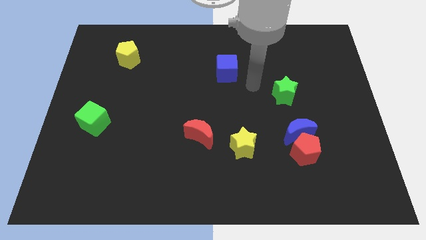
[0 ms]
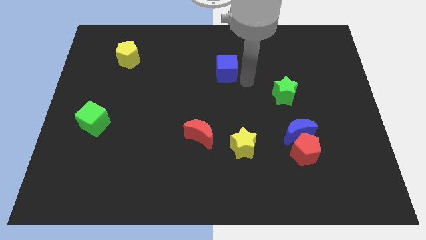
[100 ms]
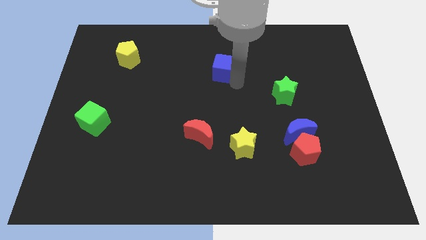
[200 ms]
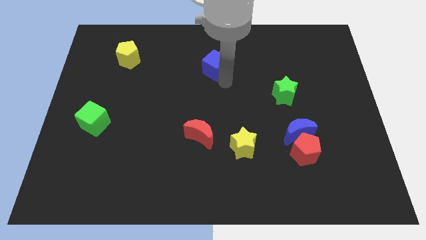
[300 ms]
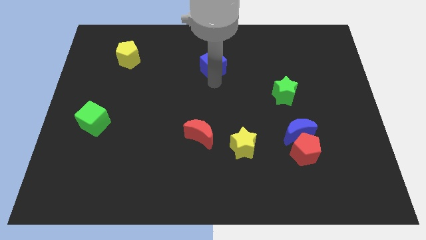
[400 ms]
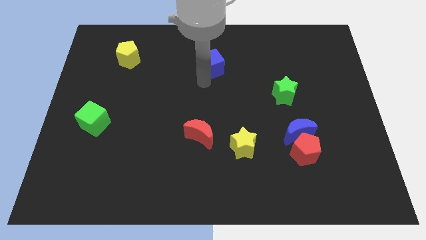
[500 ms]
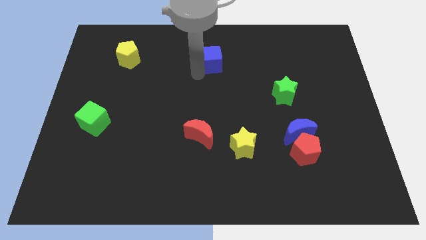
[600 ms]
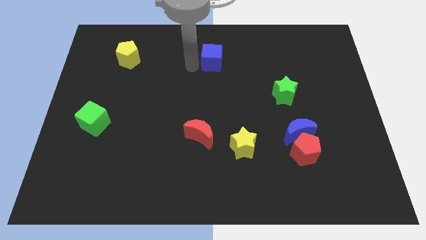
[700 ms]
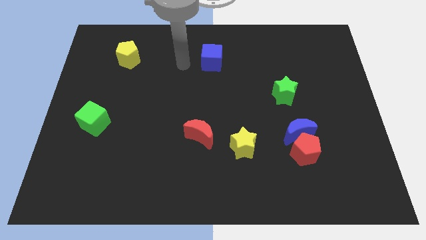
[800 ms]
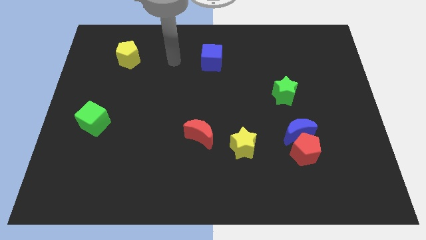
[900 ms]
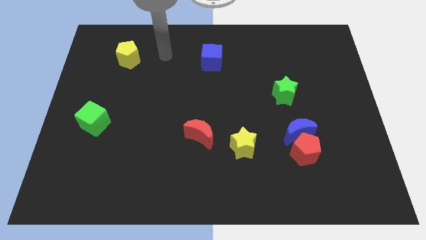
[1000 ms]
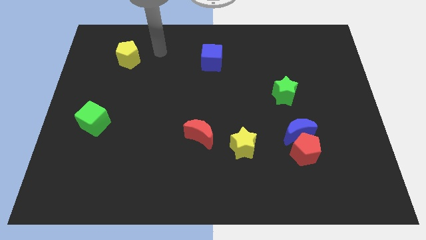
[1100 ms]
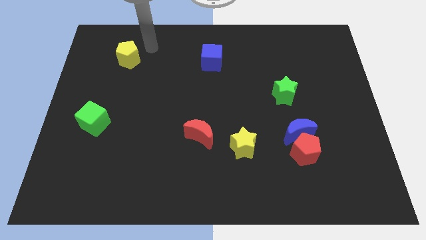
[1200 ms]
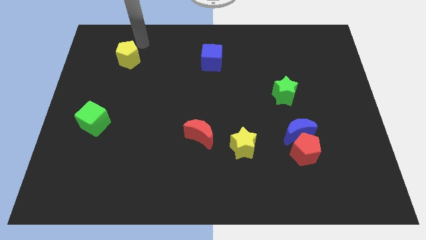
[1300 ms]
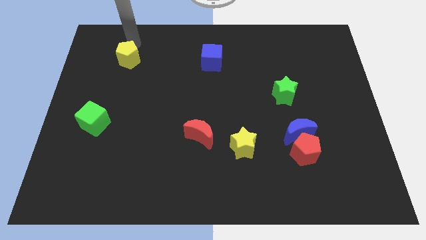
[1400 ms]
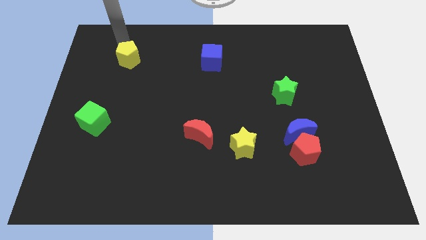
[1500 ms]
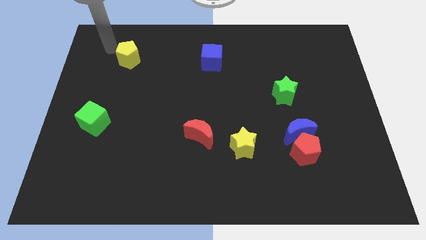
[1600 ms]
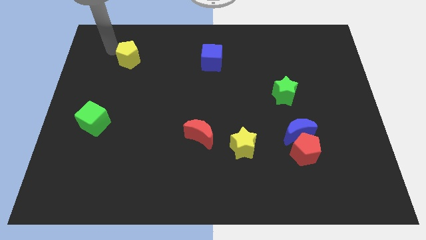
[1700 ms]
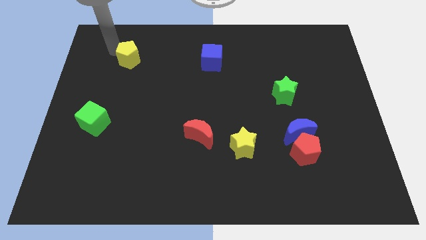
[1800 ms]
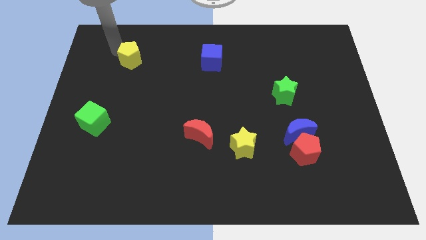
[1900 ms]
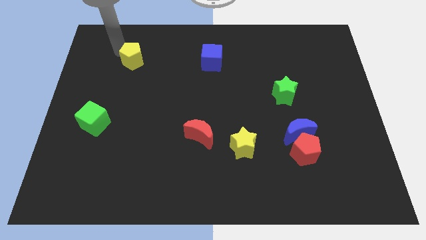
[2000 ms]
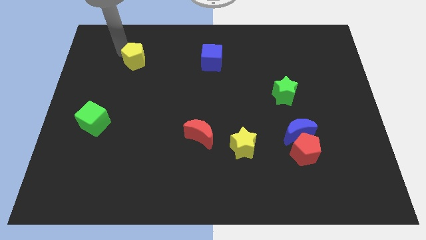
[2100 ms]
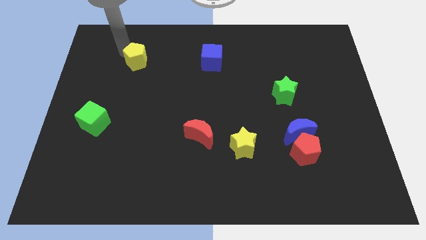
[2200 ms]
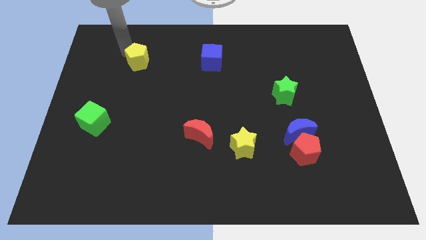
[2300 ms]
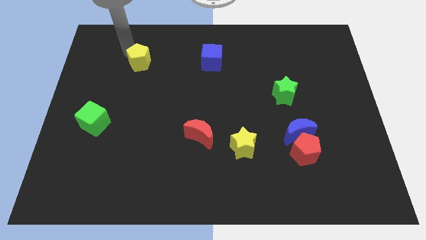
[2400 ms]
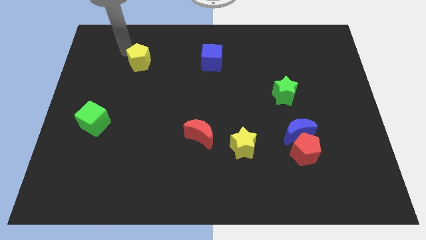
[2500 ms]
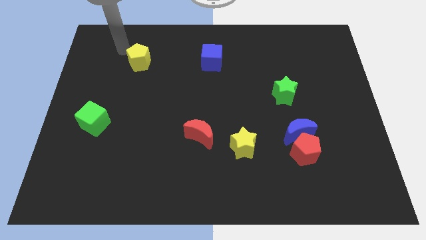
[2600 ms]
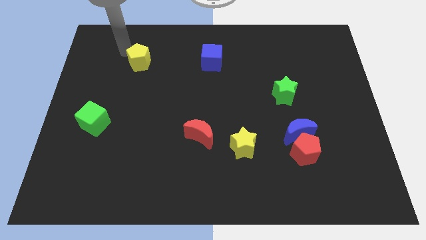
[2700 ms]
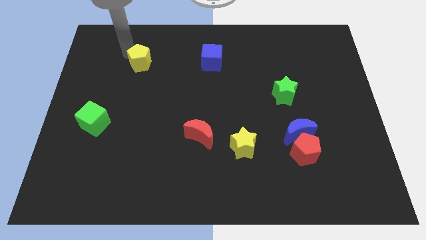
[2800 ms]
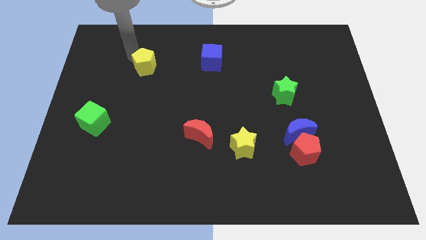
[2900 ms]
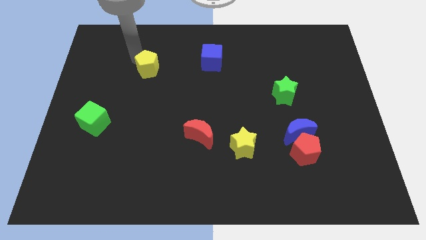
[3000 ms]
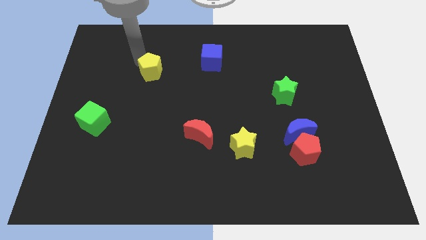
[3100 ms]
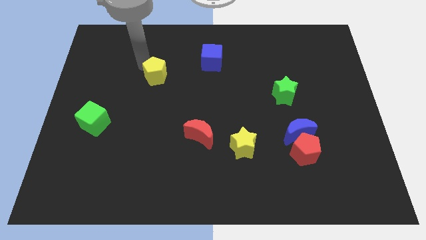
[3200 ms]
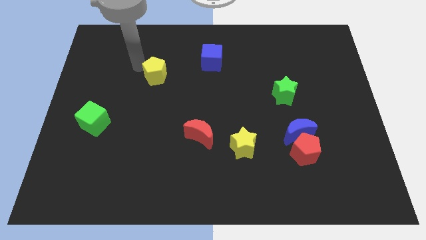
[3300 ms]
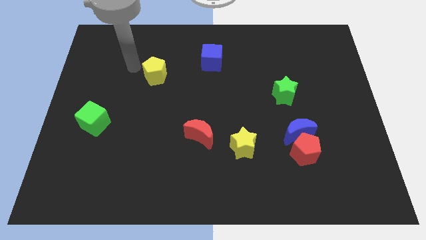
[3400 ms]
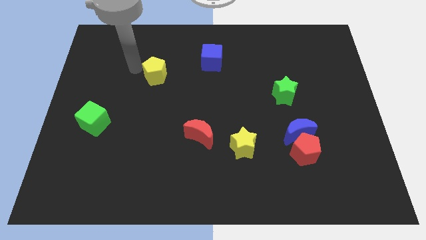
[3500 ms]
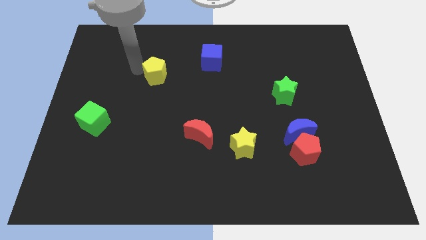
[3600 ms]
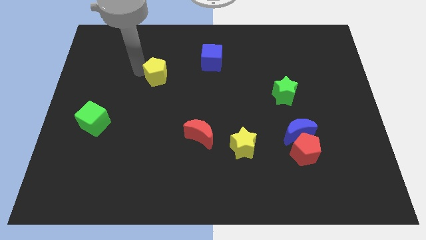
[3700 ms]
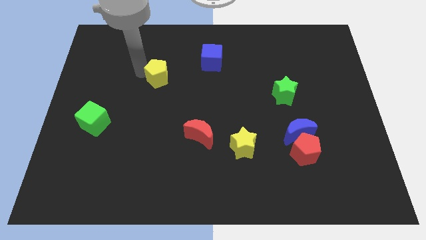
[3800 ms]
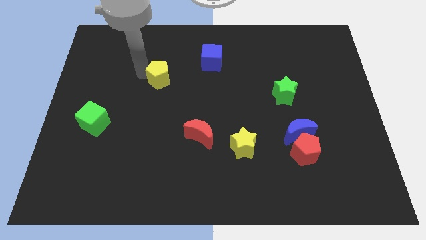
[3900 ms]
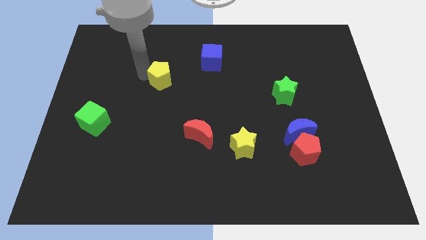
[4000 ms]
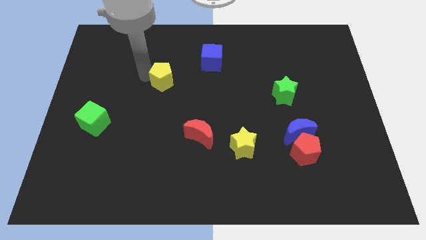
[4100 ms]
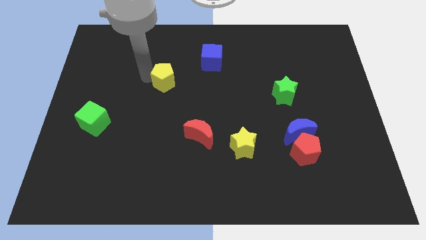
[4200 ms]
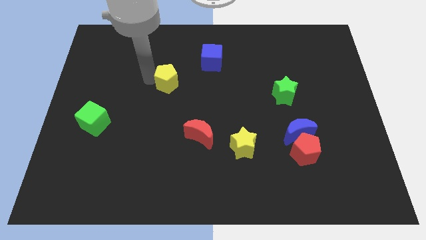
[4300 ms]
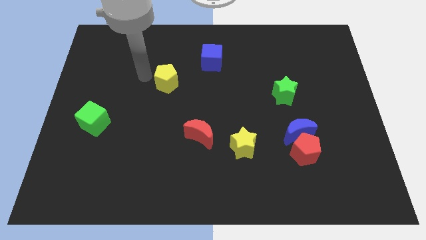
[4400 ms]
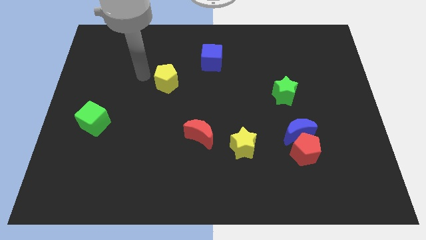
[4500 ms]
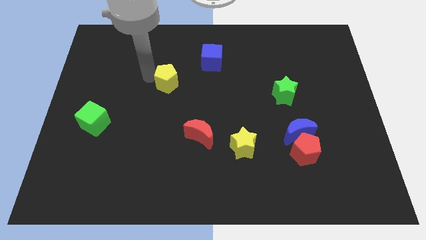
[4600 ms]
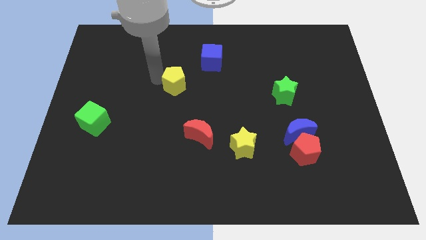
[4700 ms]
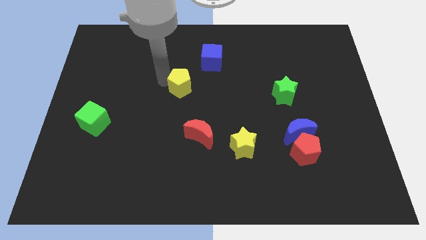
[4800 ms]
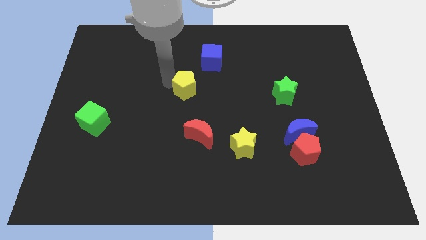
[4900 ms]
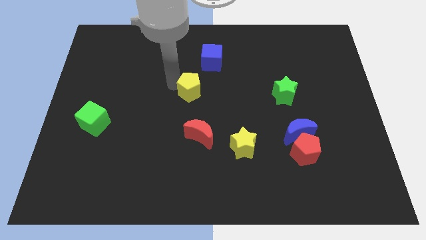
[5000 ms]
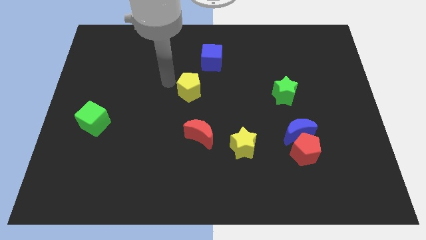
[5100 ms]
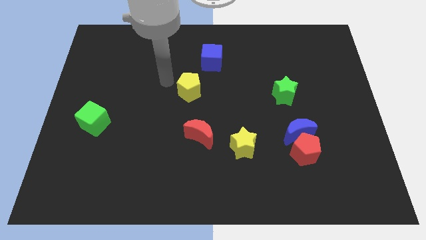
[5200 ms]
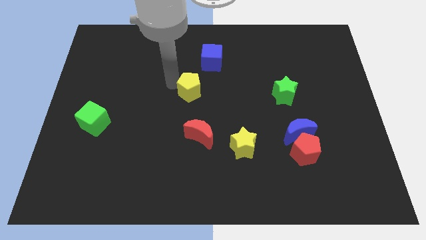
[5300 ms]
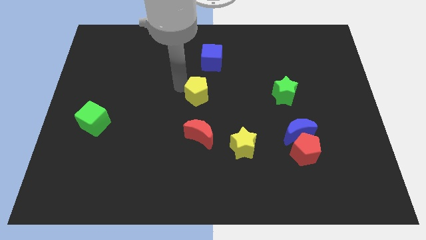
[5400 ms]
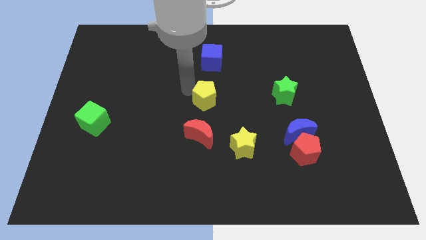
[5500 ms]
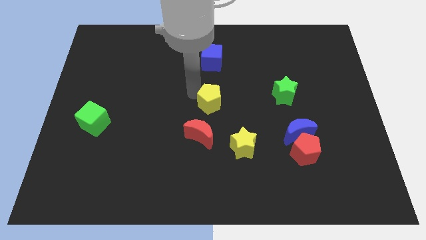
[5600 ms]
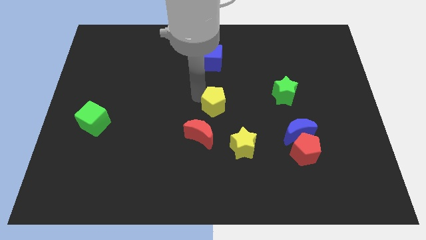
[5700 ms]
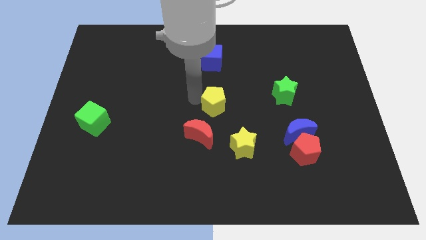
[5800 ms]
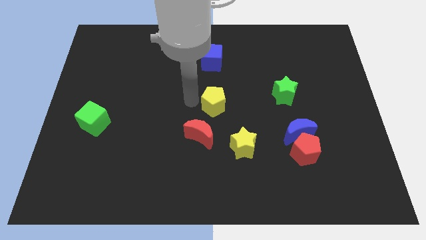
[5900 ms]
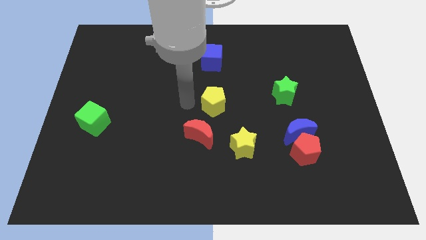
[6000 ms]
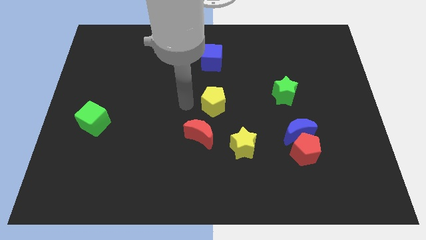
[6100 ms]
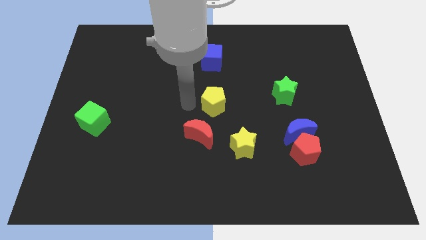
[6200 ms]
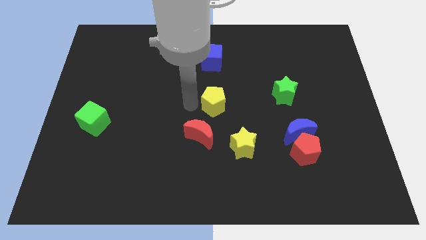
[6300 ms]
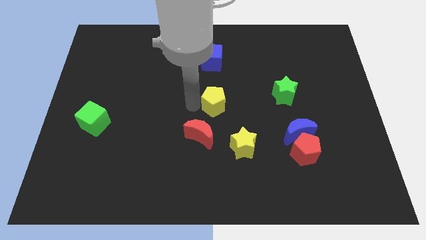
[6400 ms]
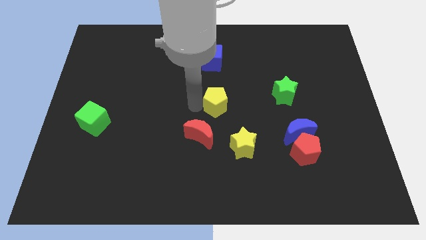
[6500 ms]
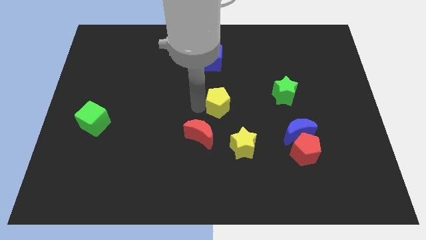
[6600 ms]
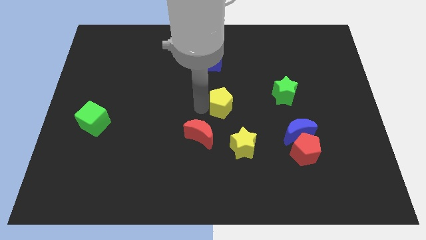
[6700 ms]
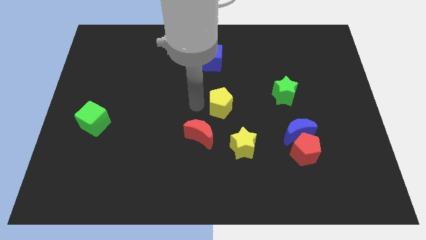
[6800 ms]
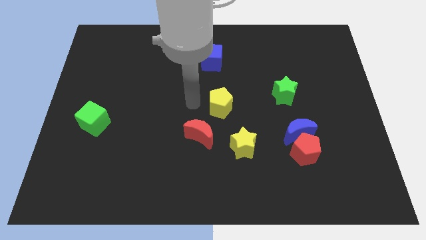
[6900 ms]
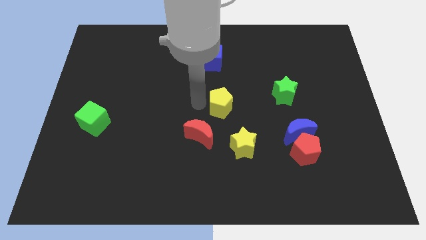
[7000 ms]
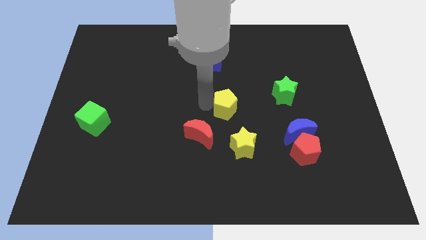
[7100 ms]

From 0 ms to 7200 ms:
move the yellow pentagon to the top of the yellow star

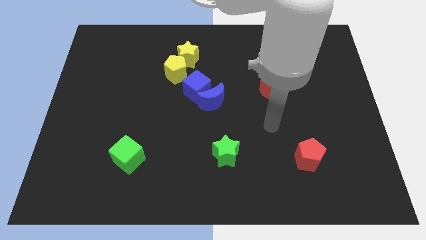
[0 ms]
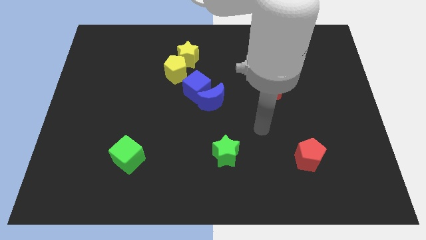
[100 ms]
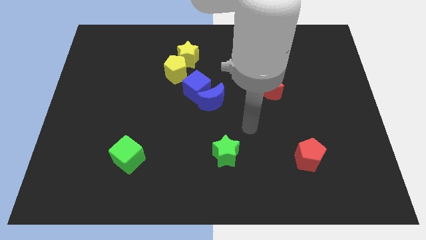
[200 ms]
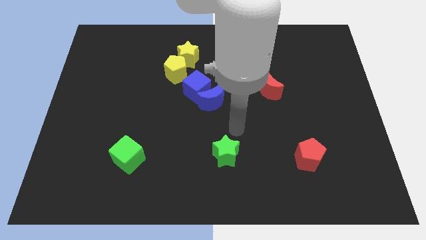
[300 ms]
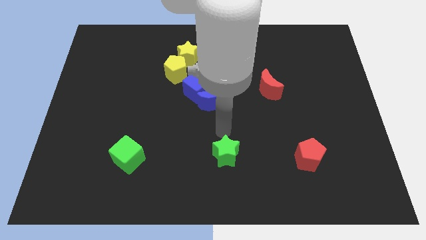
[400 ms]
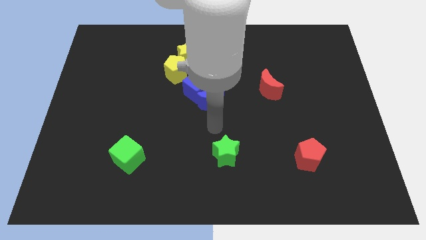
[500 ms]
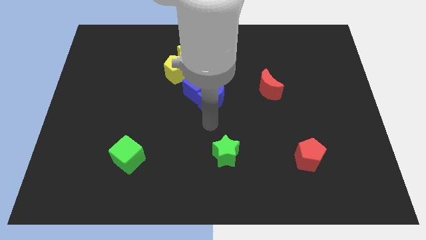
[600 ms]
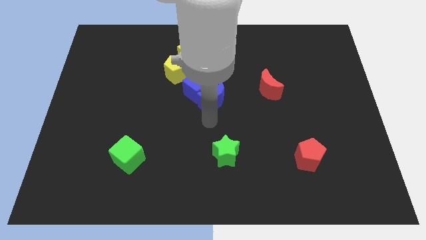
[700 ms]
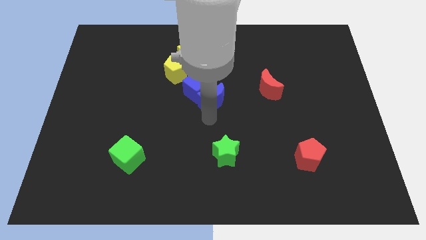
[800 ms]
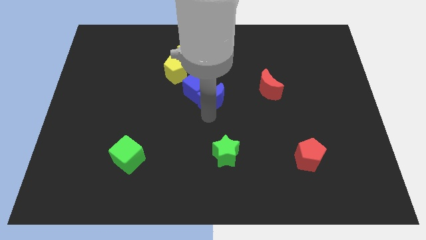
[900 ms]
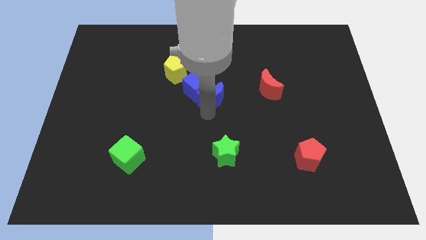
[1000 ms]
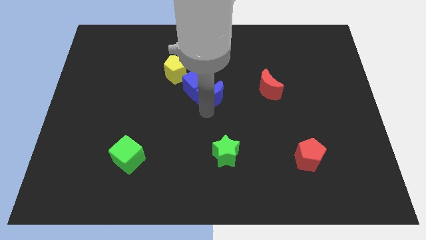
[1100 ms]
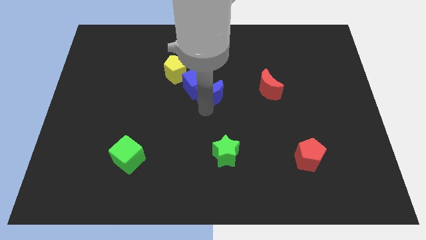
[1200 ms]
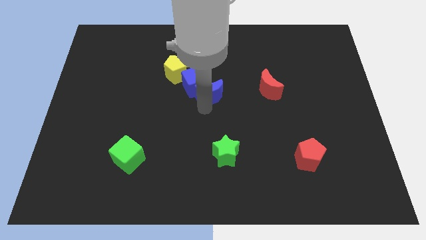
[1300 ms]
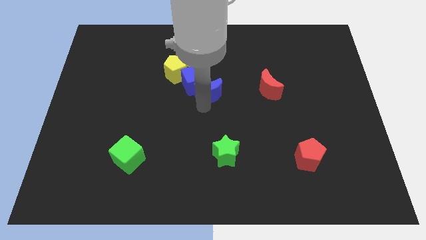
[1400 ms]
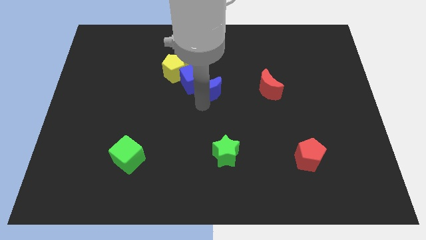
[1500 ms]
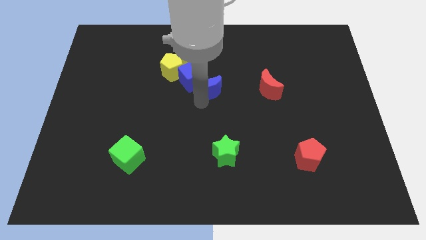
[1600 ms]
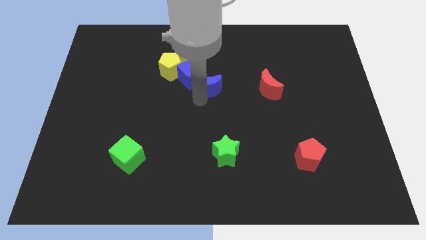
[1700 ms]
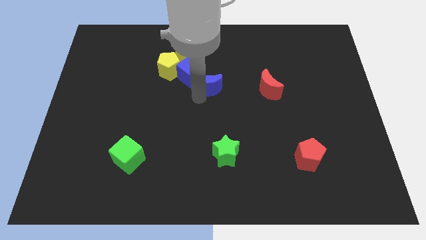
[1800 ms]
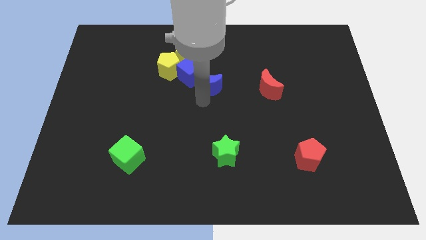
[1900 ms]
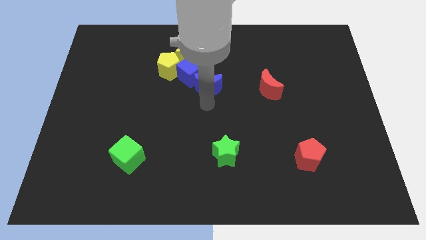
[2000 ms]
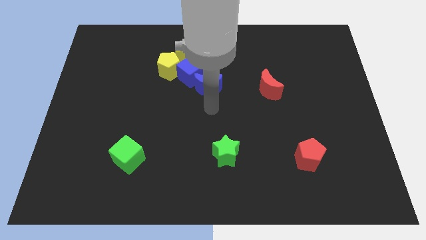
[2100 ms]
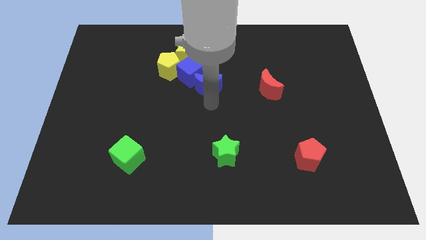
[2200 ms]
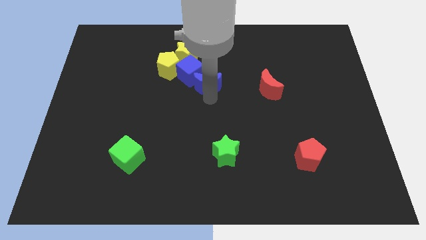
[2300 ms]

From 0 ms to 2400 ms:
move the blue moon to the bottom right side of the yellow star
